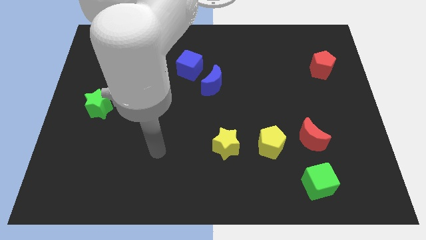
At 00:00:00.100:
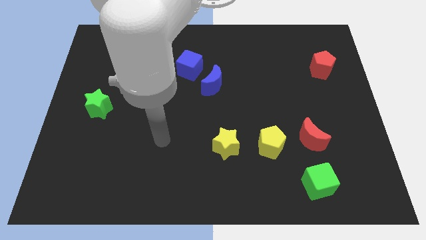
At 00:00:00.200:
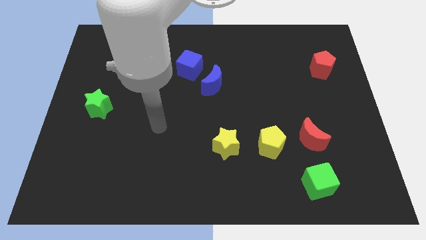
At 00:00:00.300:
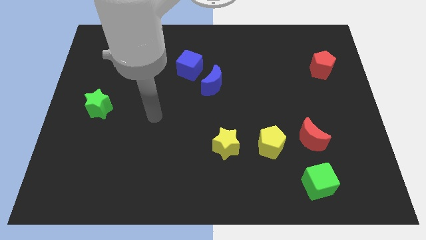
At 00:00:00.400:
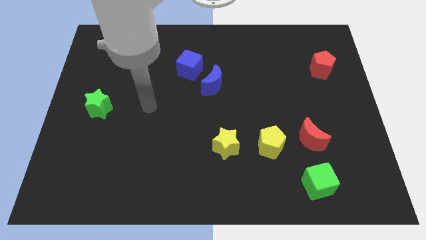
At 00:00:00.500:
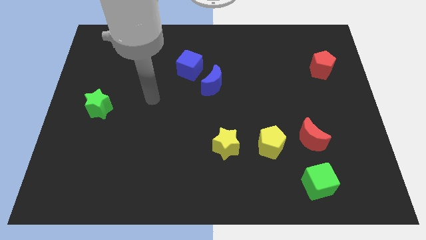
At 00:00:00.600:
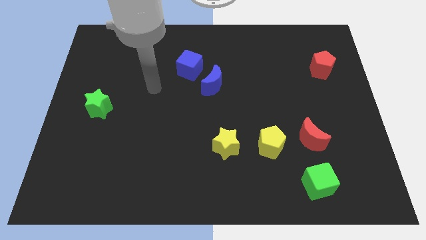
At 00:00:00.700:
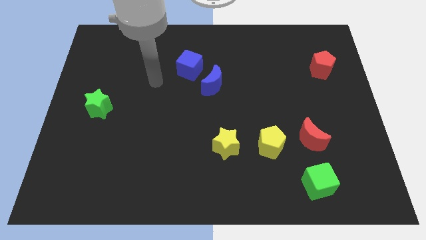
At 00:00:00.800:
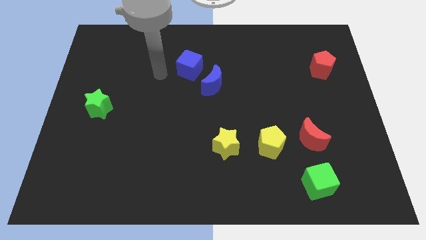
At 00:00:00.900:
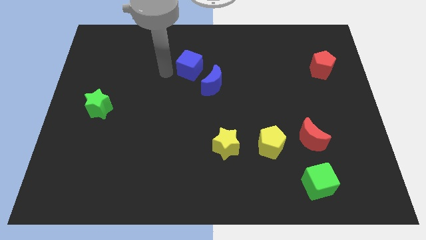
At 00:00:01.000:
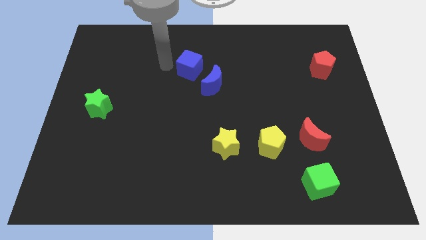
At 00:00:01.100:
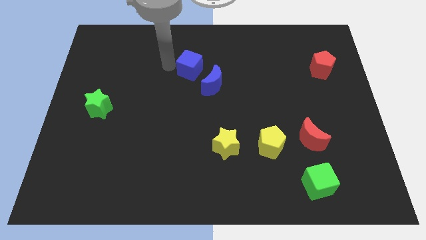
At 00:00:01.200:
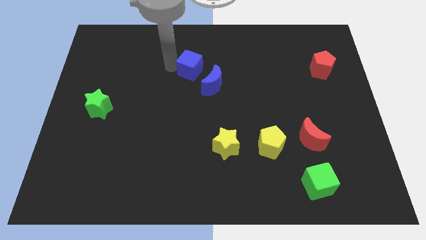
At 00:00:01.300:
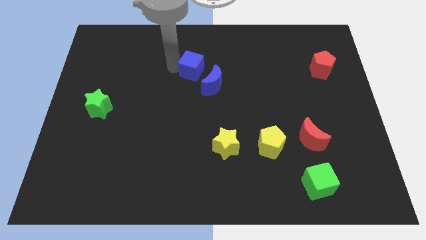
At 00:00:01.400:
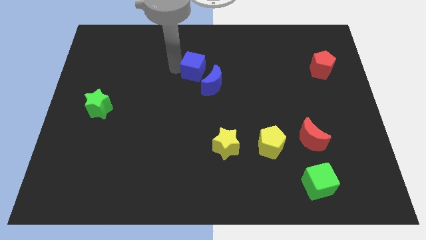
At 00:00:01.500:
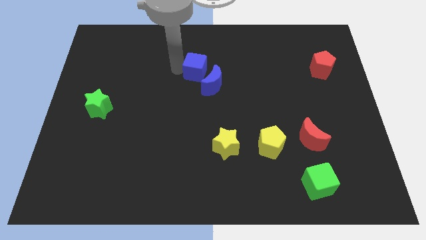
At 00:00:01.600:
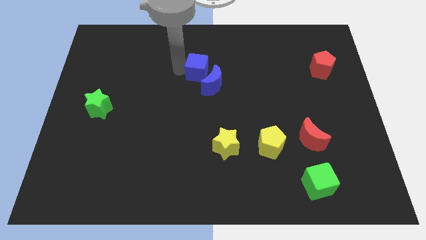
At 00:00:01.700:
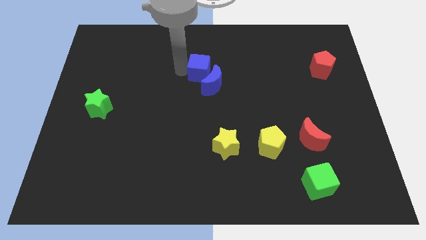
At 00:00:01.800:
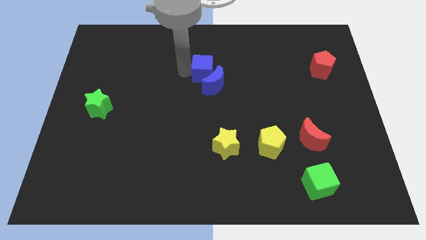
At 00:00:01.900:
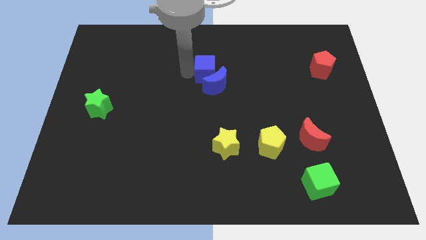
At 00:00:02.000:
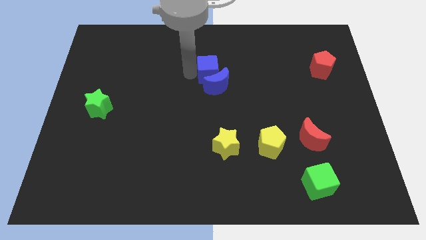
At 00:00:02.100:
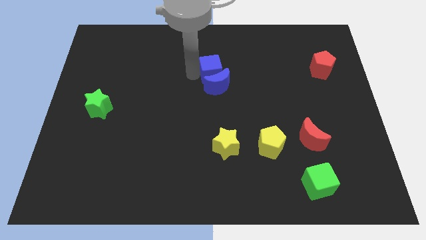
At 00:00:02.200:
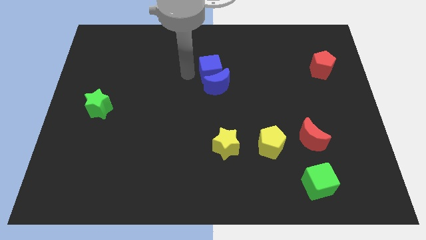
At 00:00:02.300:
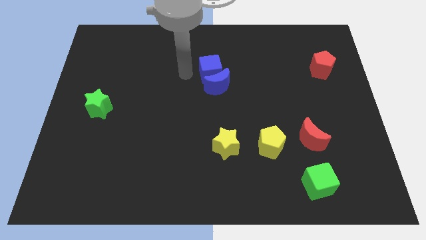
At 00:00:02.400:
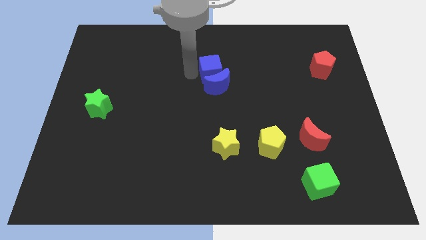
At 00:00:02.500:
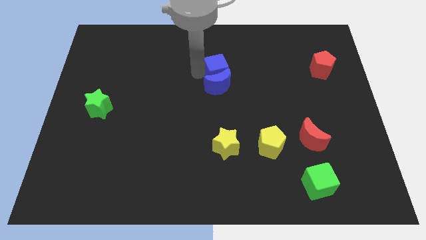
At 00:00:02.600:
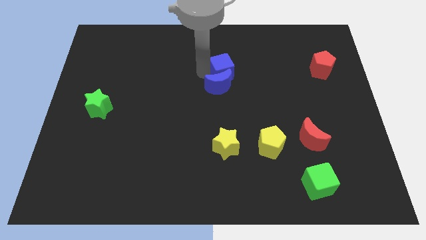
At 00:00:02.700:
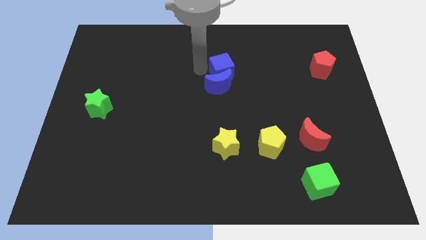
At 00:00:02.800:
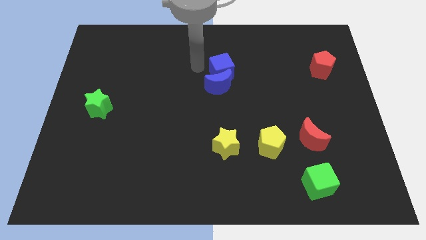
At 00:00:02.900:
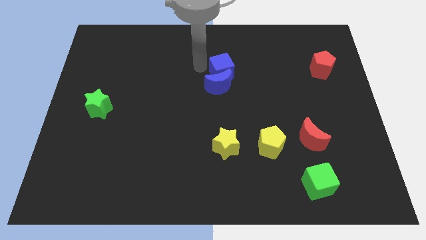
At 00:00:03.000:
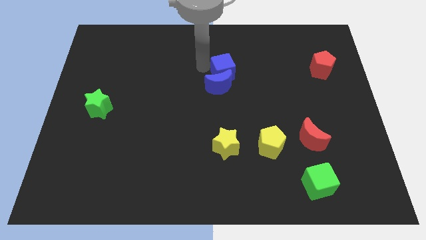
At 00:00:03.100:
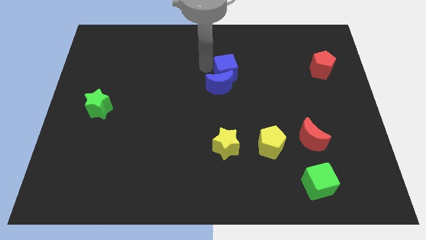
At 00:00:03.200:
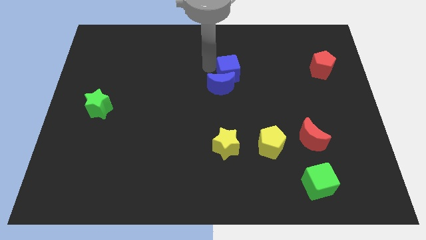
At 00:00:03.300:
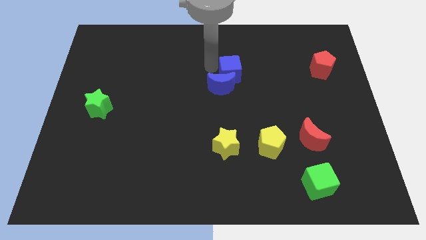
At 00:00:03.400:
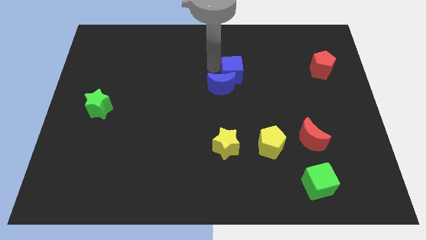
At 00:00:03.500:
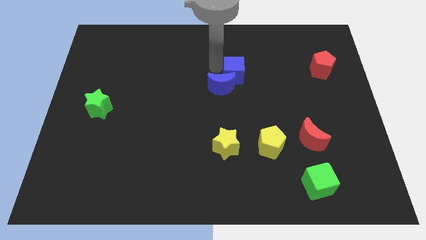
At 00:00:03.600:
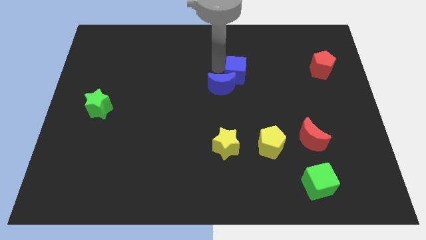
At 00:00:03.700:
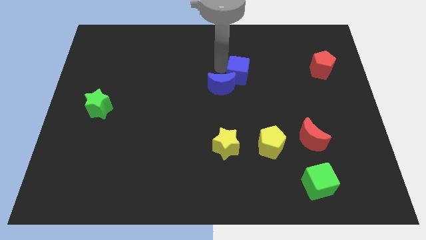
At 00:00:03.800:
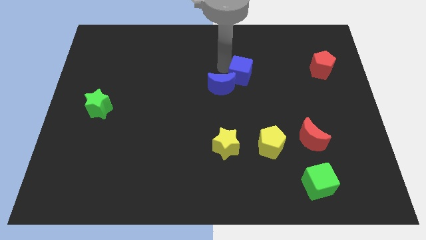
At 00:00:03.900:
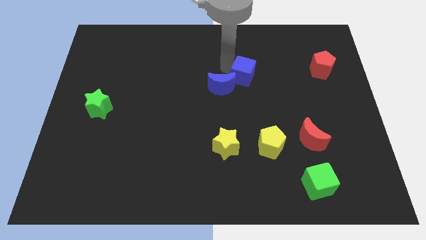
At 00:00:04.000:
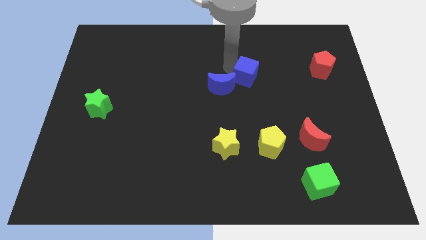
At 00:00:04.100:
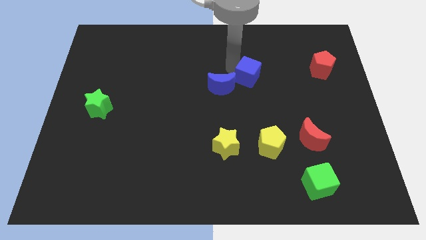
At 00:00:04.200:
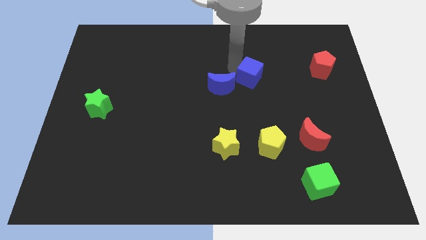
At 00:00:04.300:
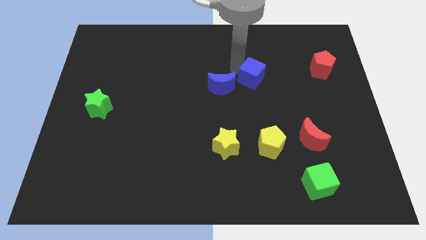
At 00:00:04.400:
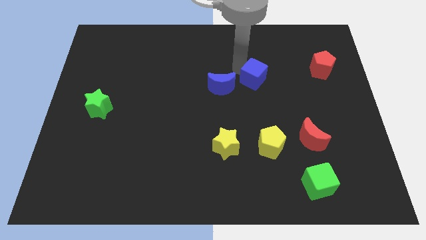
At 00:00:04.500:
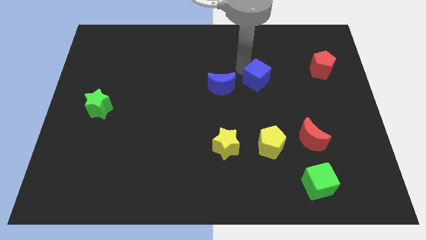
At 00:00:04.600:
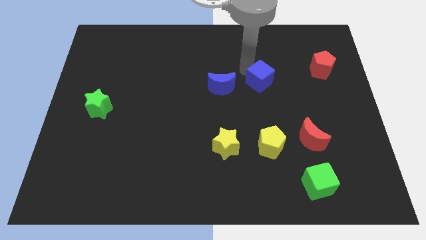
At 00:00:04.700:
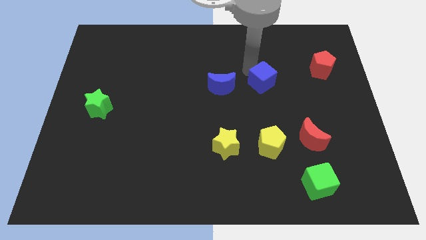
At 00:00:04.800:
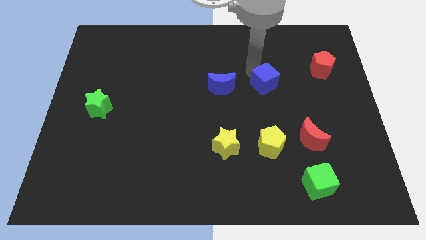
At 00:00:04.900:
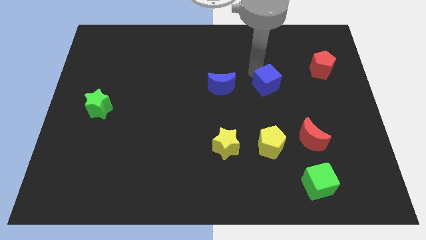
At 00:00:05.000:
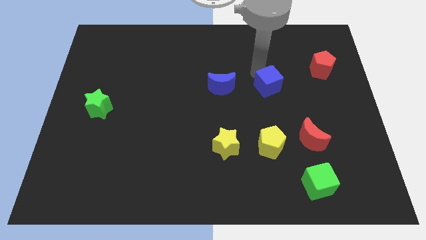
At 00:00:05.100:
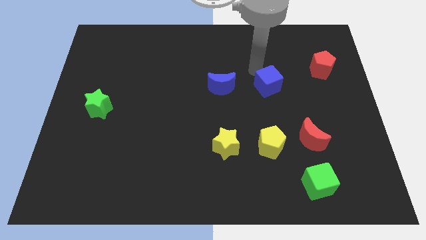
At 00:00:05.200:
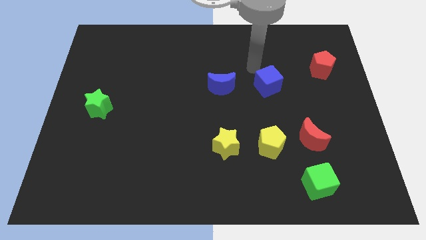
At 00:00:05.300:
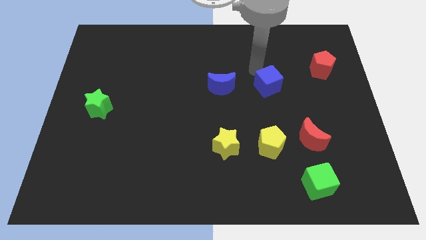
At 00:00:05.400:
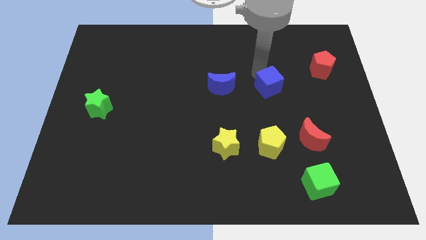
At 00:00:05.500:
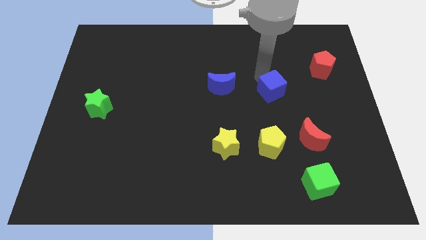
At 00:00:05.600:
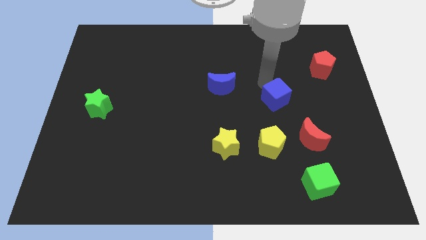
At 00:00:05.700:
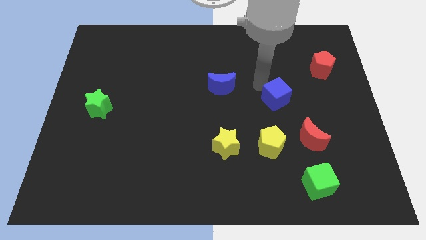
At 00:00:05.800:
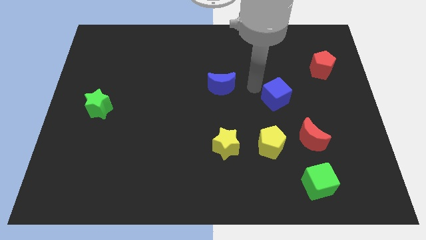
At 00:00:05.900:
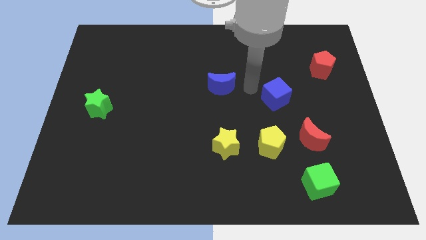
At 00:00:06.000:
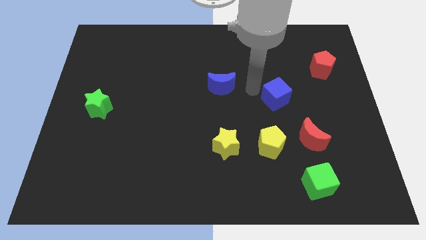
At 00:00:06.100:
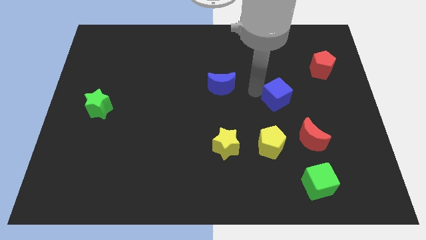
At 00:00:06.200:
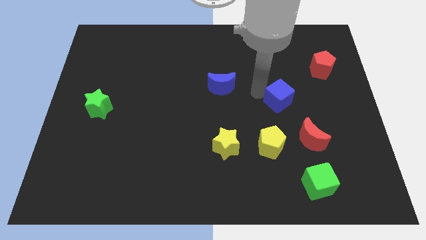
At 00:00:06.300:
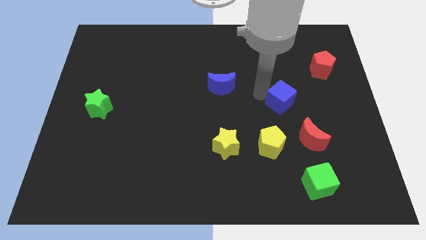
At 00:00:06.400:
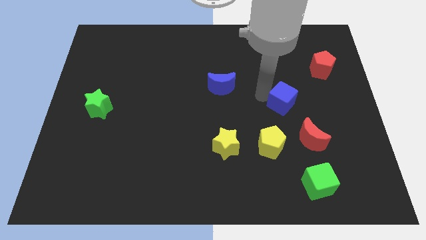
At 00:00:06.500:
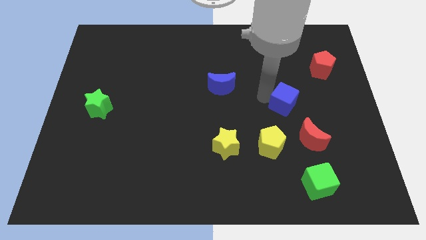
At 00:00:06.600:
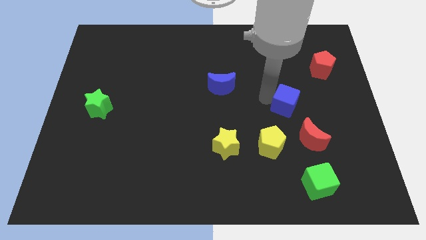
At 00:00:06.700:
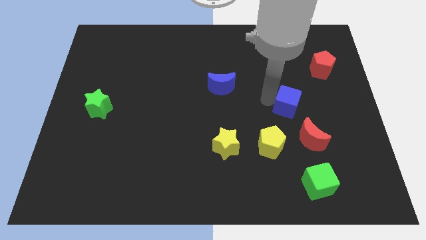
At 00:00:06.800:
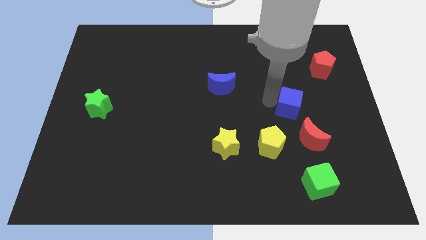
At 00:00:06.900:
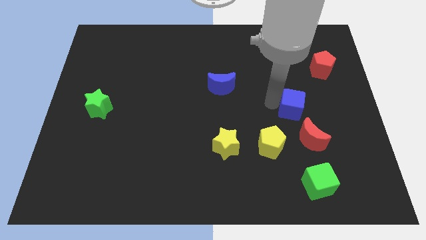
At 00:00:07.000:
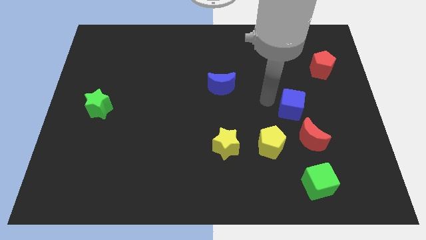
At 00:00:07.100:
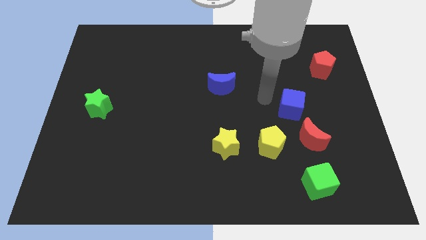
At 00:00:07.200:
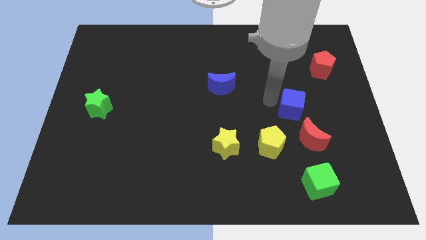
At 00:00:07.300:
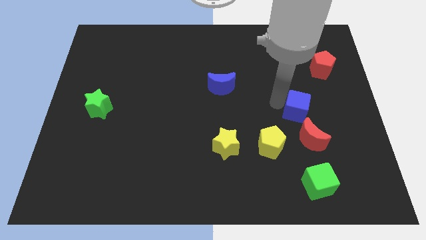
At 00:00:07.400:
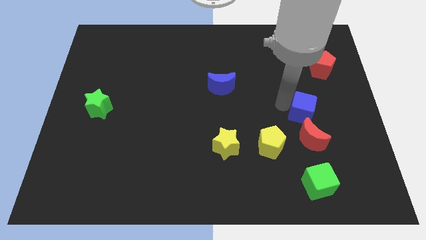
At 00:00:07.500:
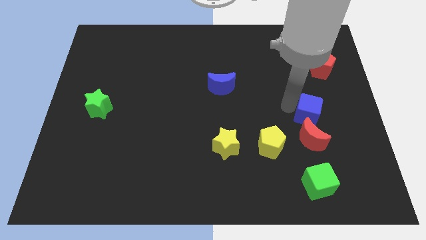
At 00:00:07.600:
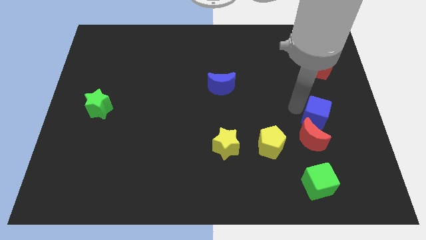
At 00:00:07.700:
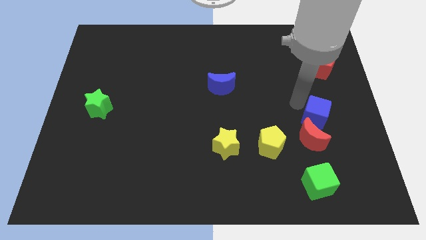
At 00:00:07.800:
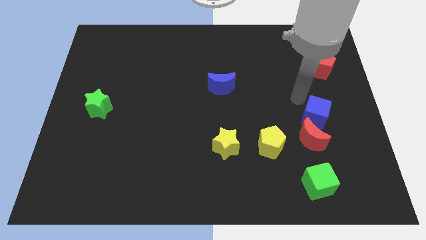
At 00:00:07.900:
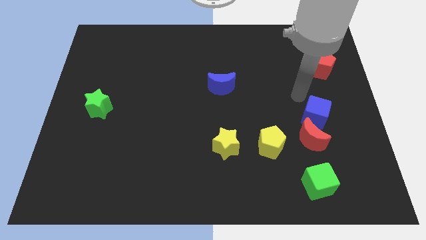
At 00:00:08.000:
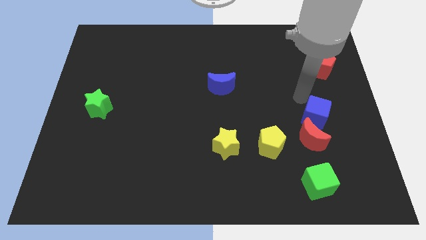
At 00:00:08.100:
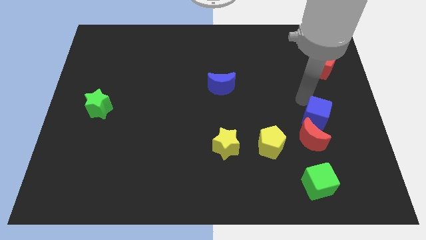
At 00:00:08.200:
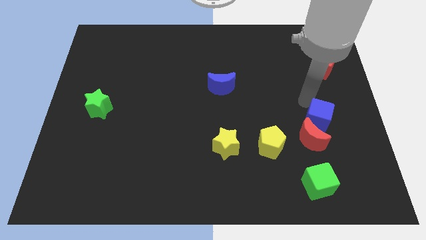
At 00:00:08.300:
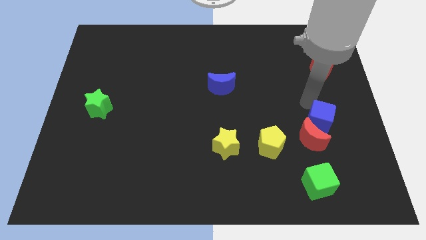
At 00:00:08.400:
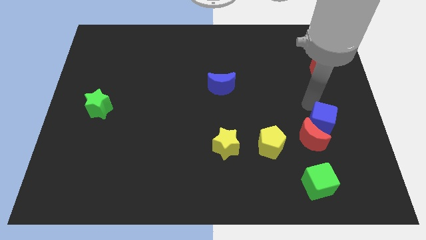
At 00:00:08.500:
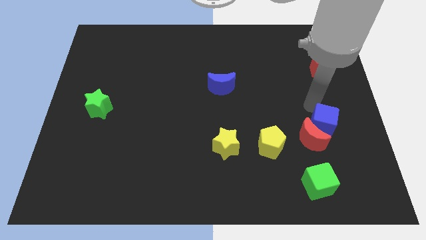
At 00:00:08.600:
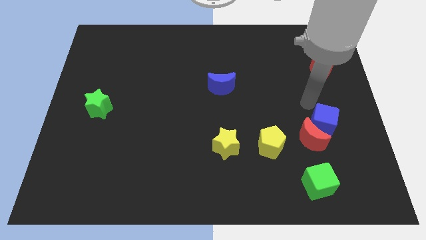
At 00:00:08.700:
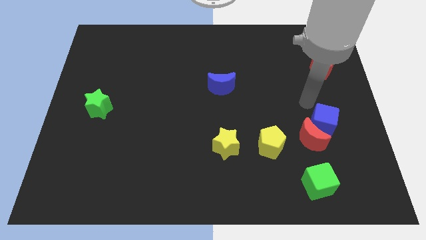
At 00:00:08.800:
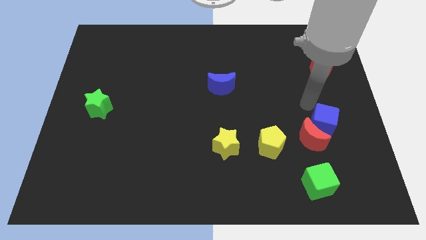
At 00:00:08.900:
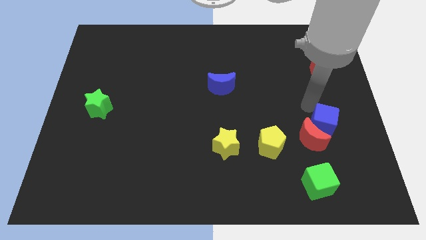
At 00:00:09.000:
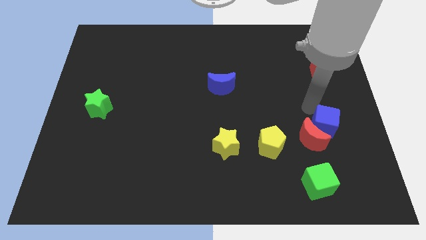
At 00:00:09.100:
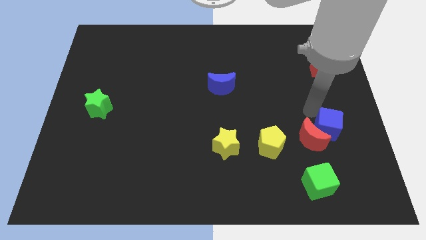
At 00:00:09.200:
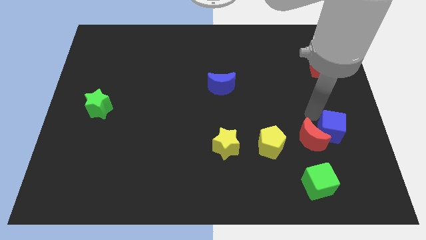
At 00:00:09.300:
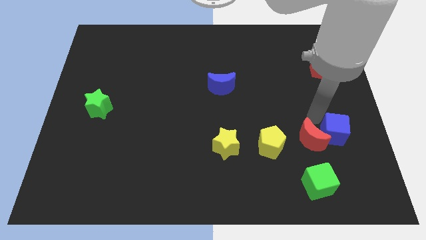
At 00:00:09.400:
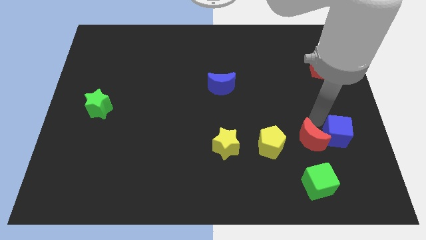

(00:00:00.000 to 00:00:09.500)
put the blue cube to the bottom right of the red moon
